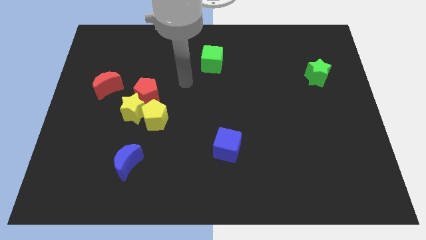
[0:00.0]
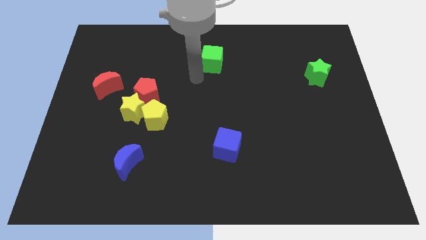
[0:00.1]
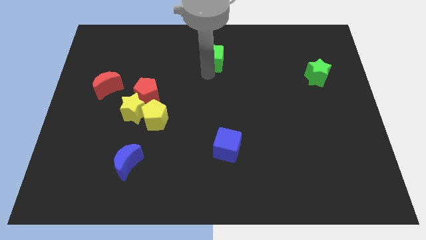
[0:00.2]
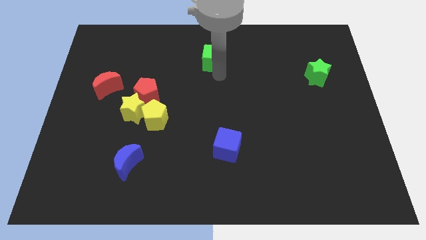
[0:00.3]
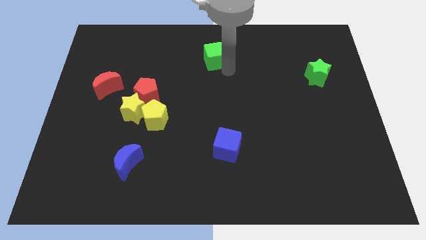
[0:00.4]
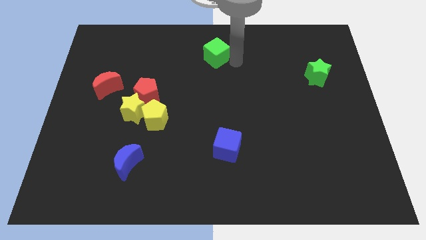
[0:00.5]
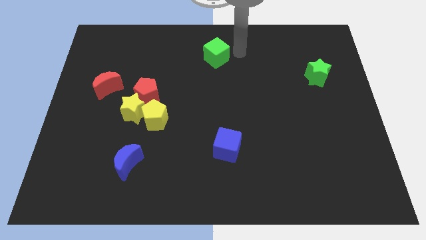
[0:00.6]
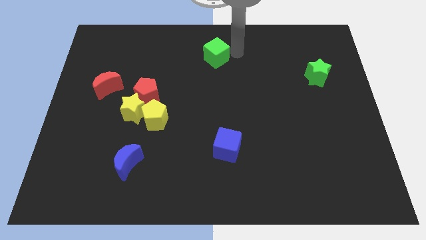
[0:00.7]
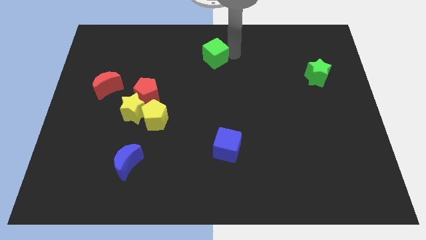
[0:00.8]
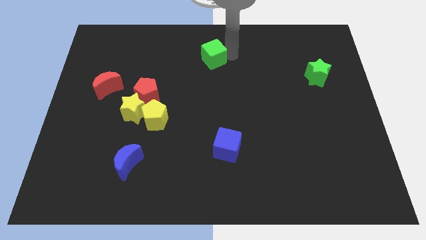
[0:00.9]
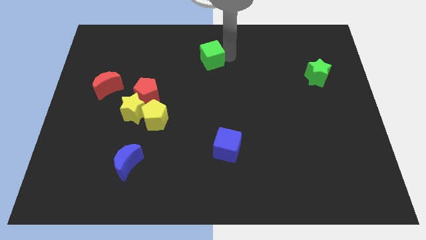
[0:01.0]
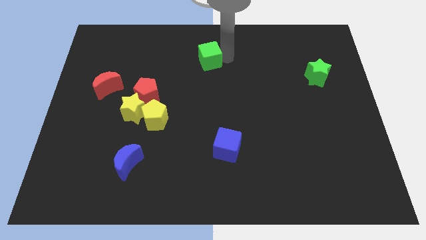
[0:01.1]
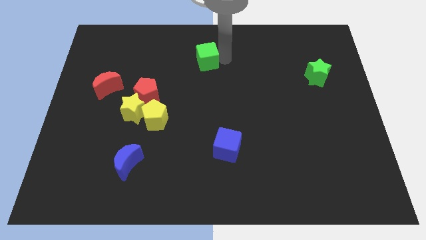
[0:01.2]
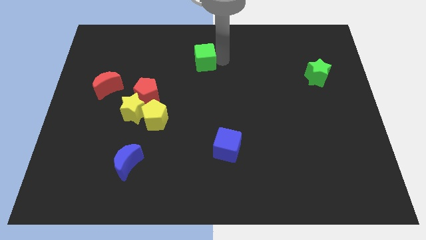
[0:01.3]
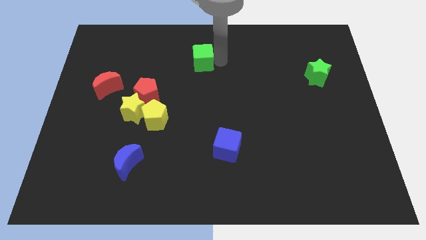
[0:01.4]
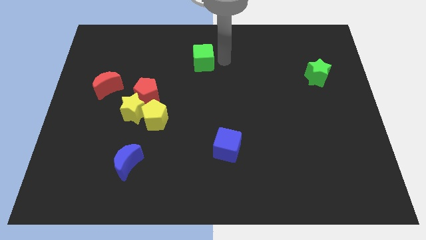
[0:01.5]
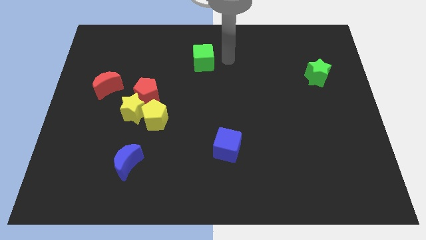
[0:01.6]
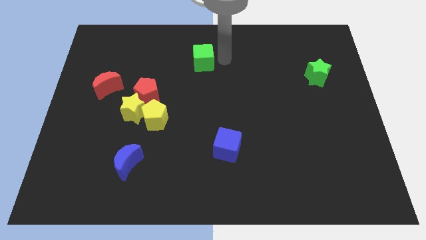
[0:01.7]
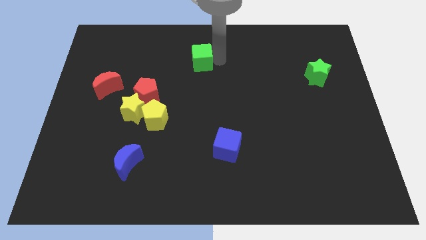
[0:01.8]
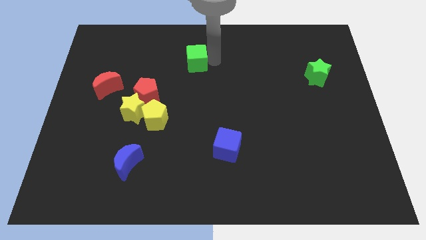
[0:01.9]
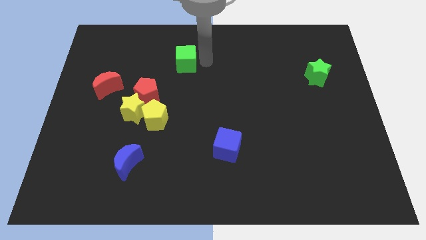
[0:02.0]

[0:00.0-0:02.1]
move the green cube slightly to the left

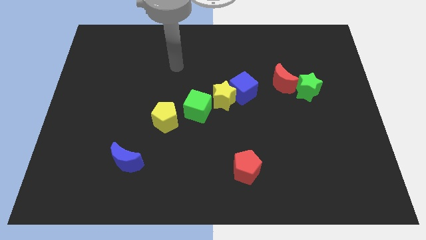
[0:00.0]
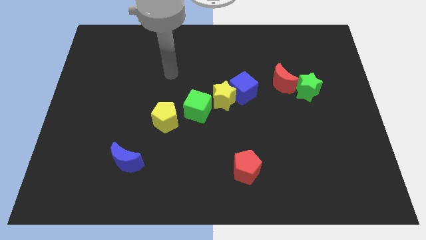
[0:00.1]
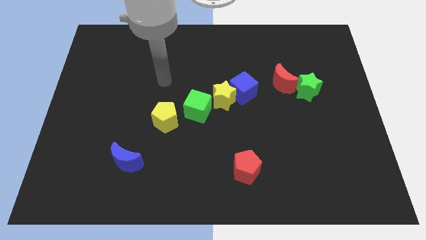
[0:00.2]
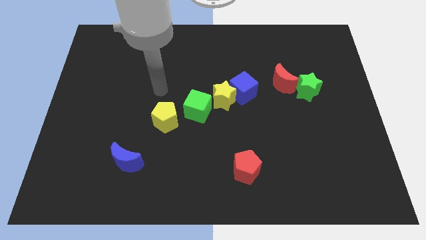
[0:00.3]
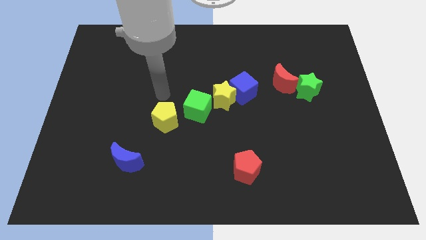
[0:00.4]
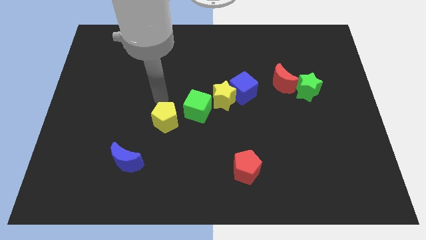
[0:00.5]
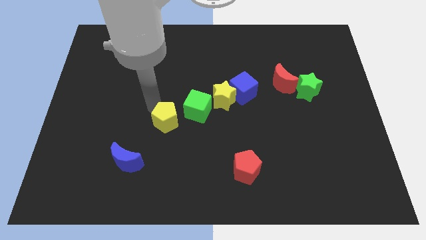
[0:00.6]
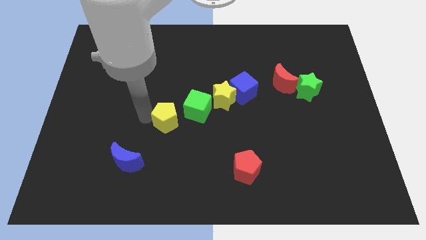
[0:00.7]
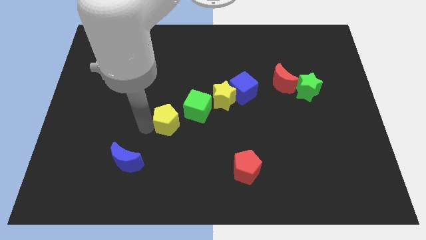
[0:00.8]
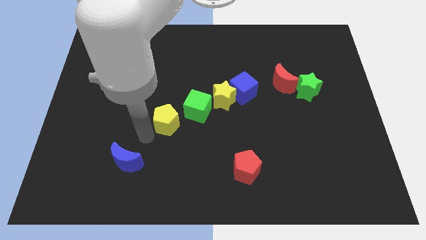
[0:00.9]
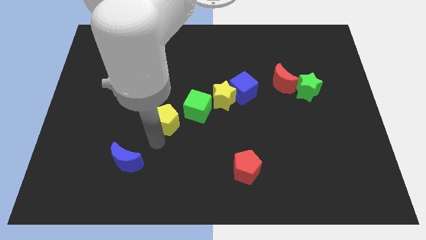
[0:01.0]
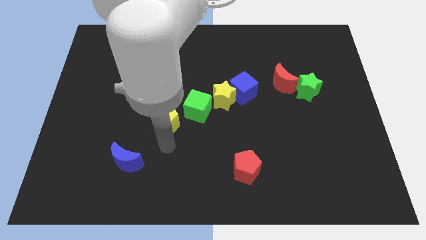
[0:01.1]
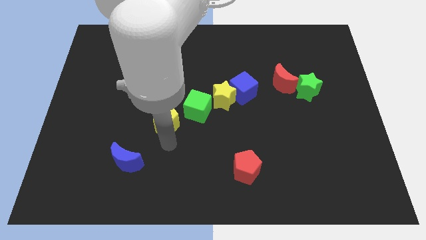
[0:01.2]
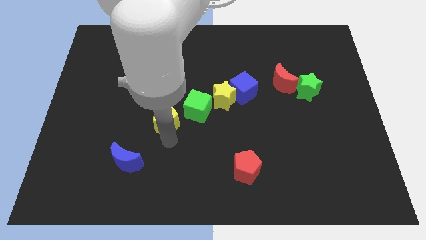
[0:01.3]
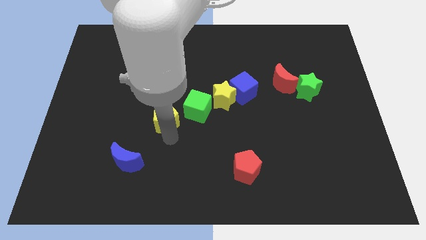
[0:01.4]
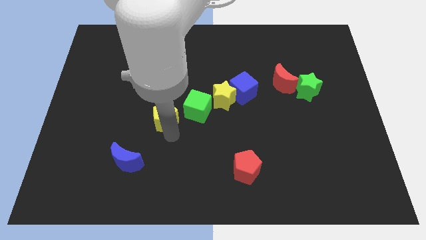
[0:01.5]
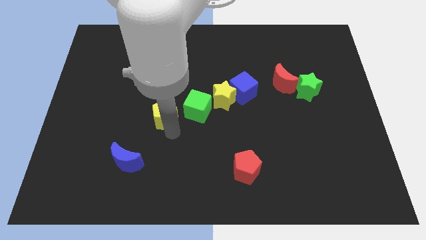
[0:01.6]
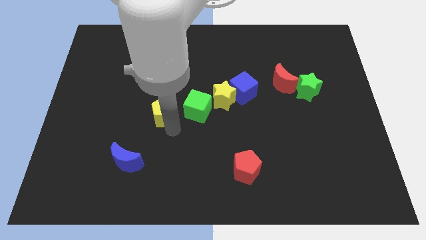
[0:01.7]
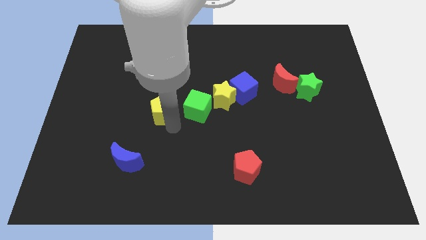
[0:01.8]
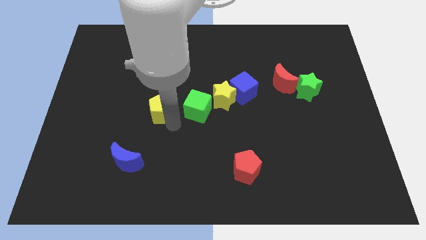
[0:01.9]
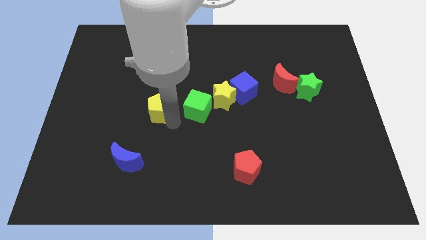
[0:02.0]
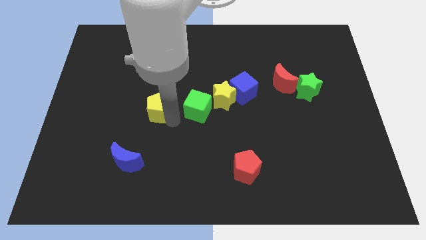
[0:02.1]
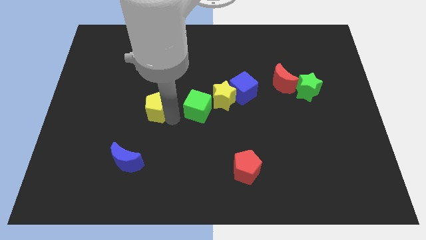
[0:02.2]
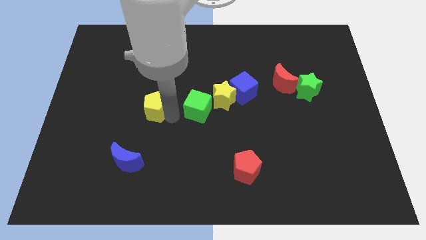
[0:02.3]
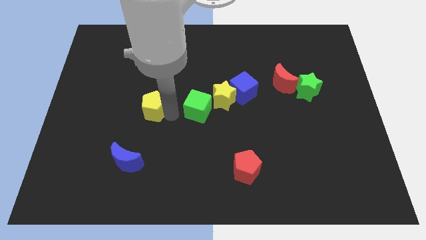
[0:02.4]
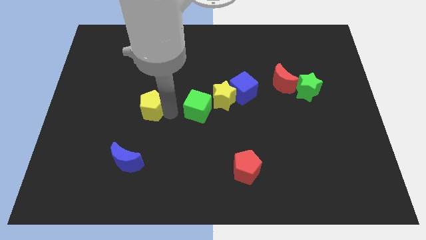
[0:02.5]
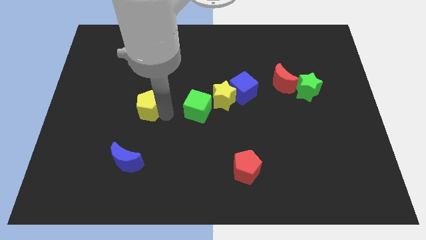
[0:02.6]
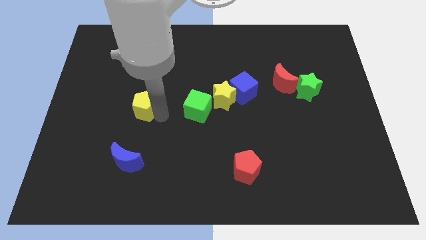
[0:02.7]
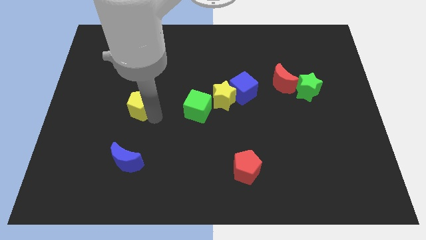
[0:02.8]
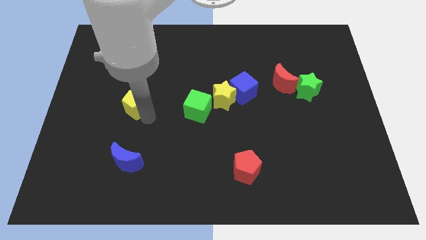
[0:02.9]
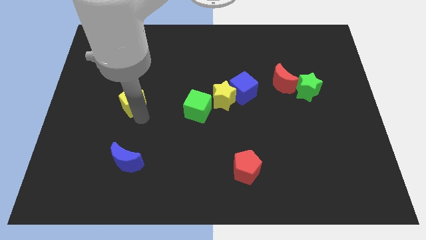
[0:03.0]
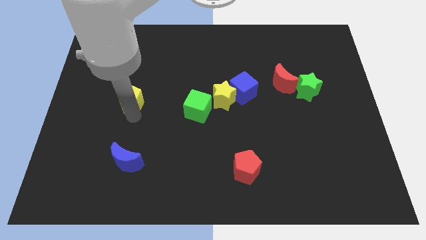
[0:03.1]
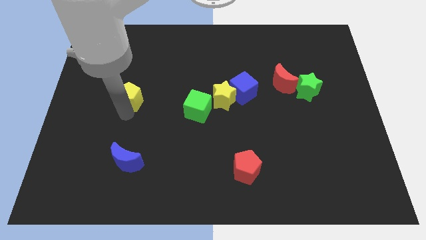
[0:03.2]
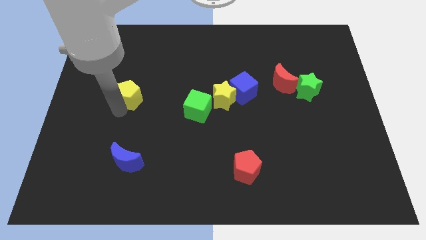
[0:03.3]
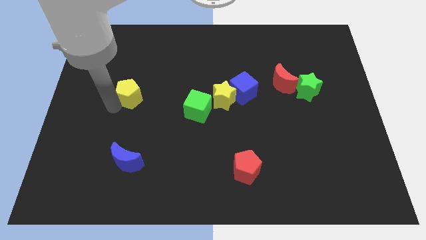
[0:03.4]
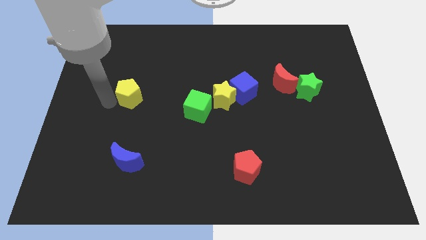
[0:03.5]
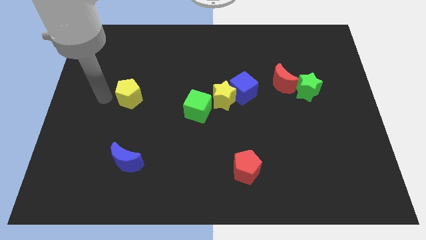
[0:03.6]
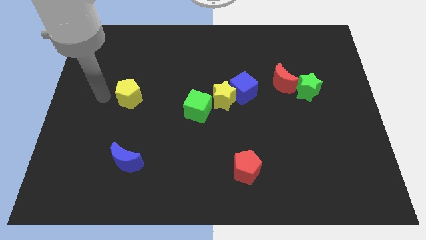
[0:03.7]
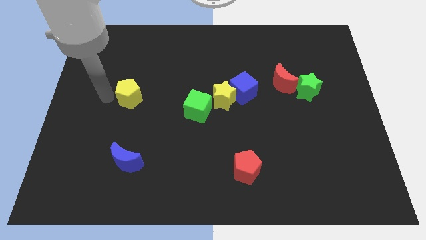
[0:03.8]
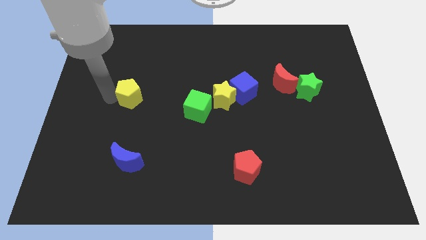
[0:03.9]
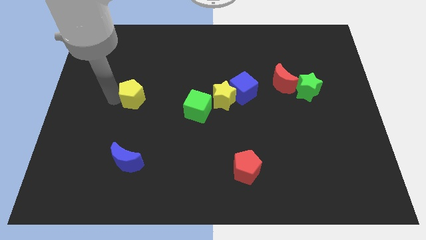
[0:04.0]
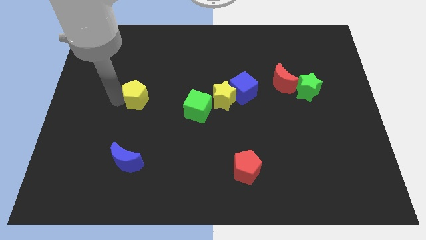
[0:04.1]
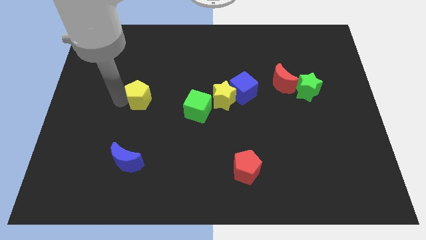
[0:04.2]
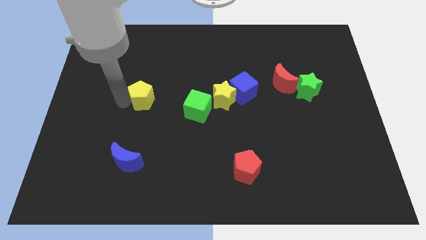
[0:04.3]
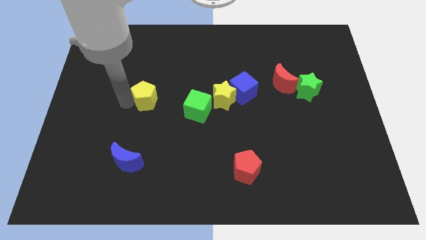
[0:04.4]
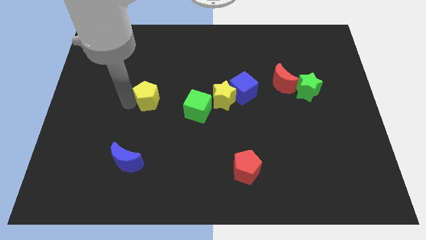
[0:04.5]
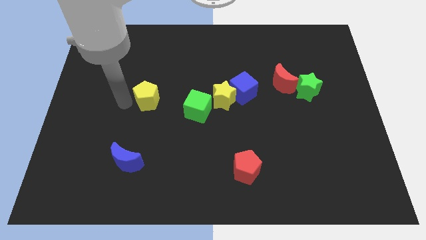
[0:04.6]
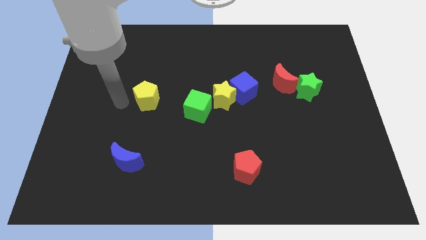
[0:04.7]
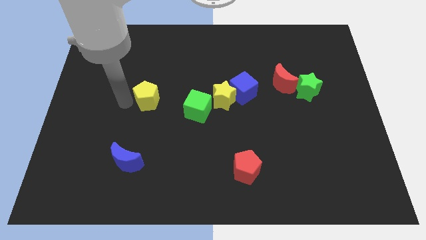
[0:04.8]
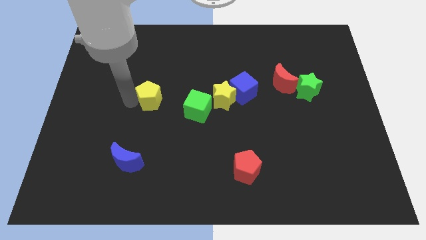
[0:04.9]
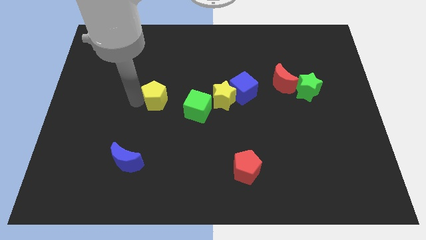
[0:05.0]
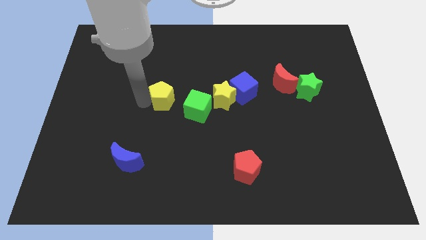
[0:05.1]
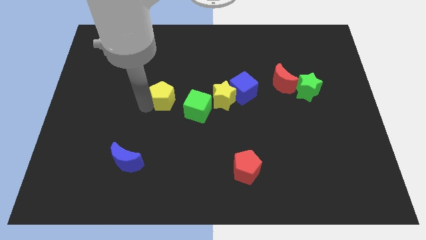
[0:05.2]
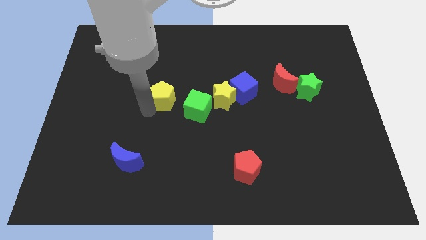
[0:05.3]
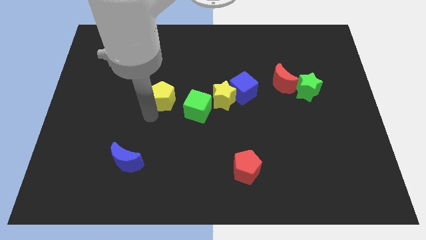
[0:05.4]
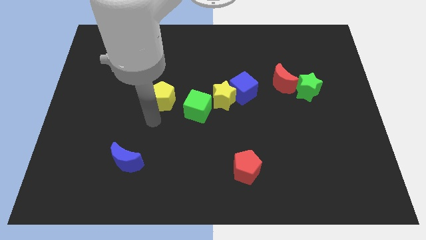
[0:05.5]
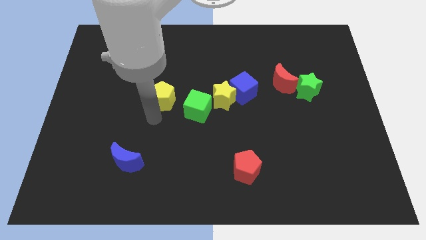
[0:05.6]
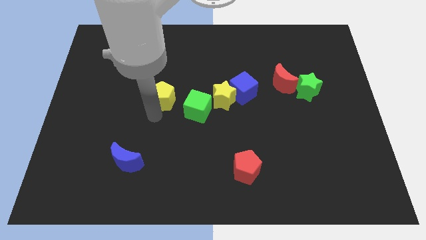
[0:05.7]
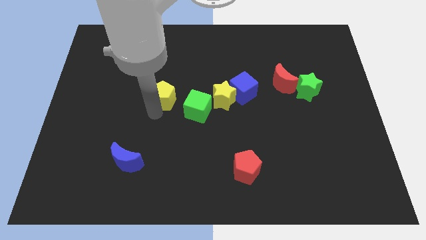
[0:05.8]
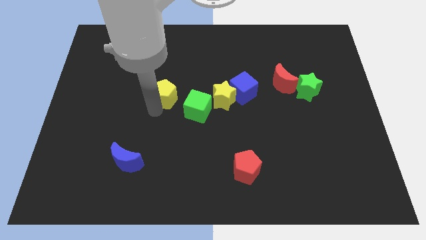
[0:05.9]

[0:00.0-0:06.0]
slightly slide the yellow pentagon up

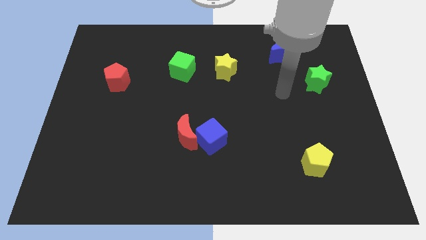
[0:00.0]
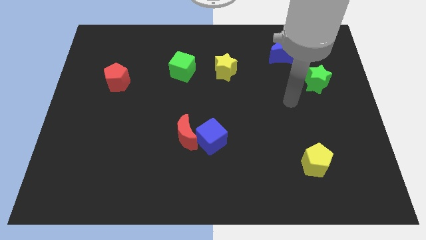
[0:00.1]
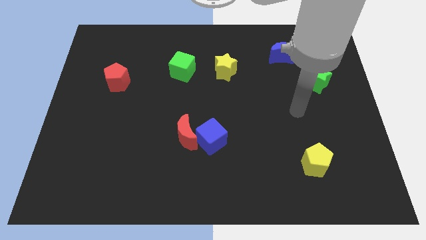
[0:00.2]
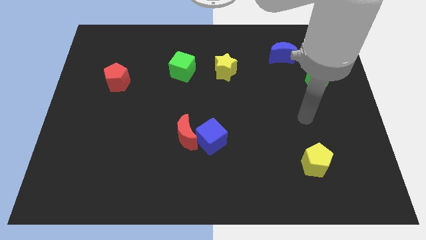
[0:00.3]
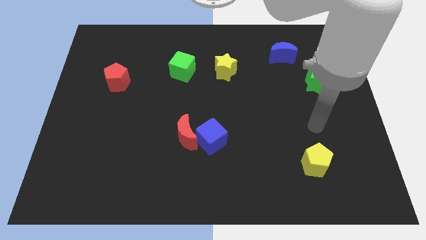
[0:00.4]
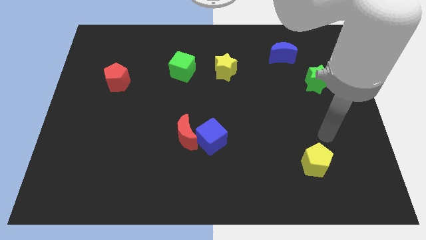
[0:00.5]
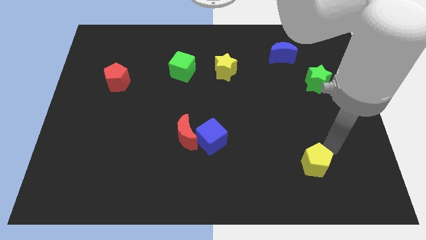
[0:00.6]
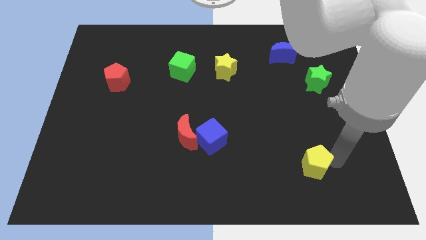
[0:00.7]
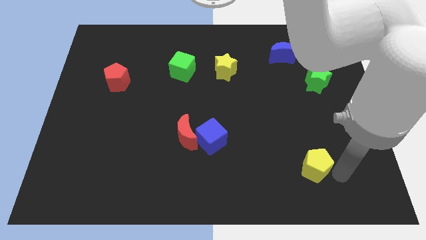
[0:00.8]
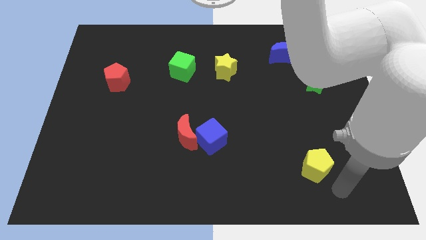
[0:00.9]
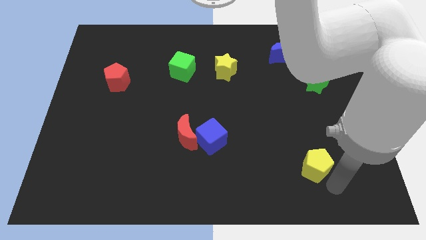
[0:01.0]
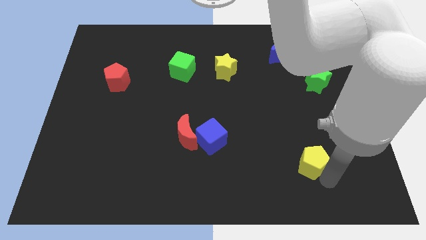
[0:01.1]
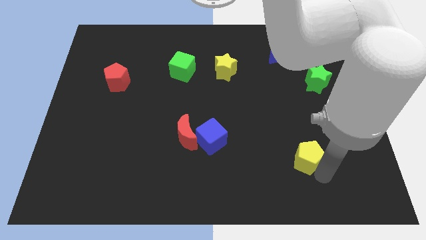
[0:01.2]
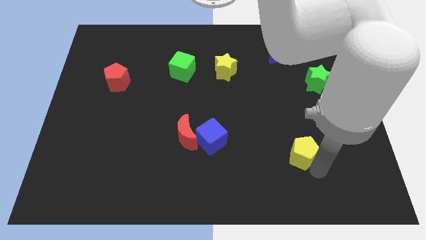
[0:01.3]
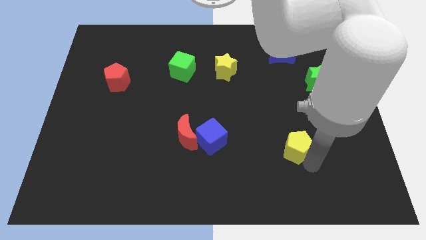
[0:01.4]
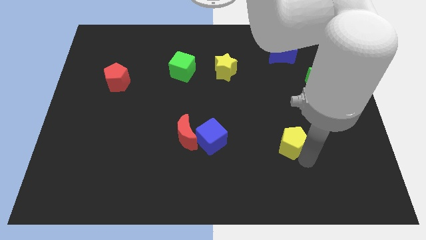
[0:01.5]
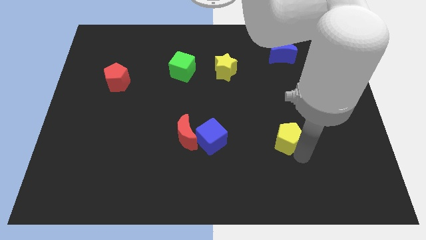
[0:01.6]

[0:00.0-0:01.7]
slightly push the yellow pentagon diagonally upwards and to the left
